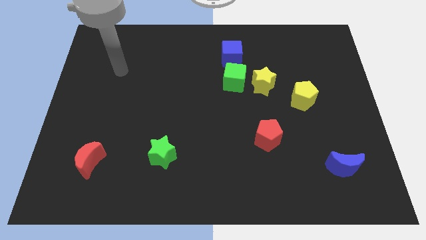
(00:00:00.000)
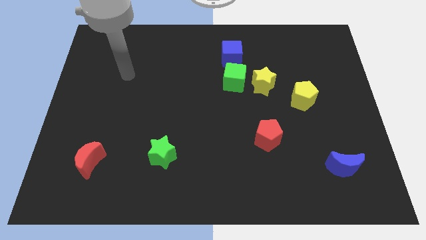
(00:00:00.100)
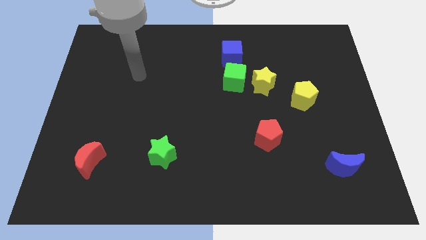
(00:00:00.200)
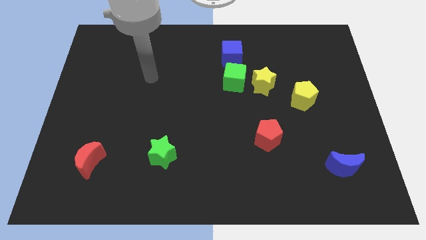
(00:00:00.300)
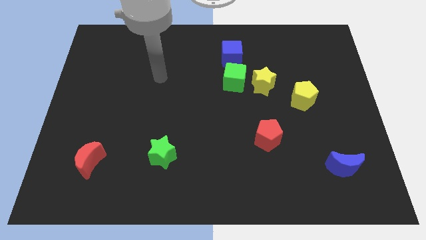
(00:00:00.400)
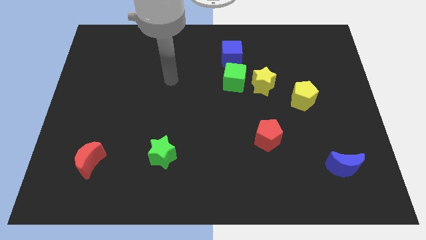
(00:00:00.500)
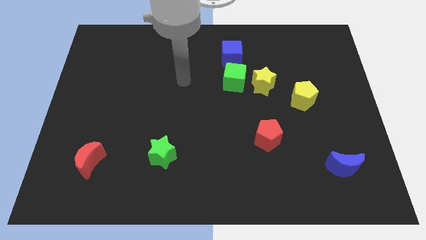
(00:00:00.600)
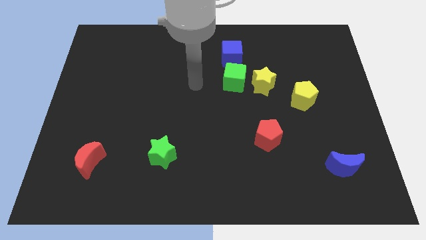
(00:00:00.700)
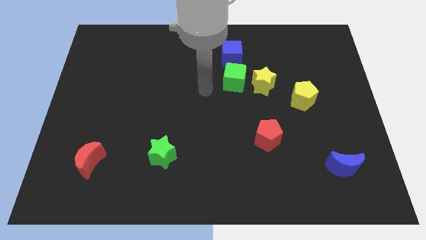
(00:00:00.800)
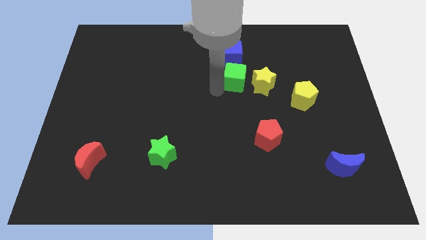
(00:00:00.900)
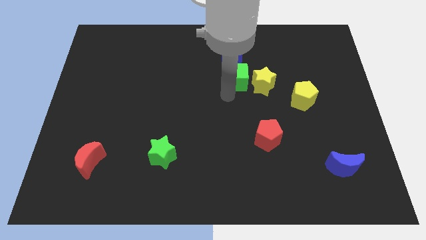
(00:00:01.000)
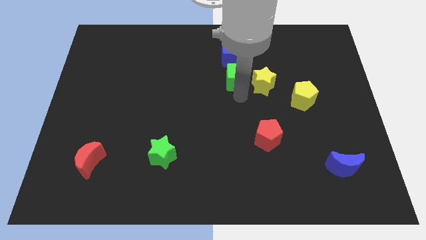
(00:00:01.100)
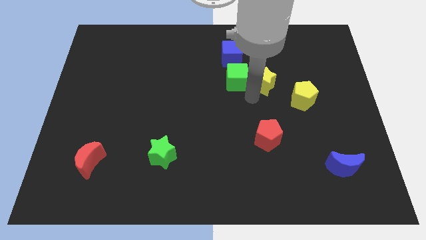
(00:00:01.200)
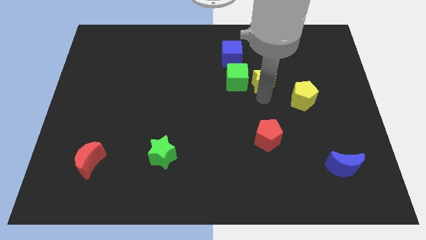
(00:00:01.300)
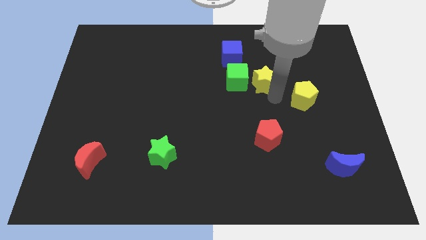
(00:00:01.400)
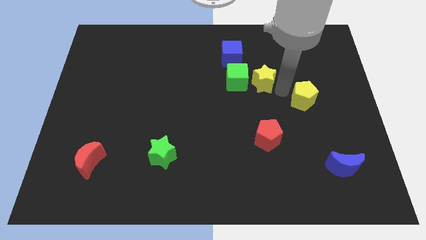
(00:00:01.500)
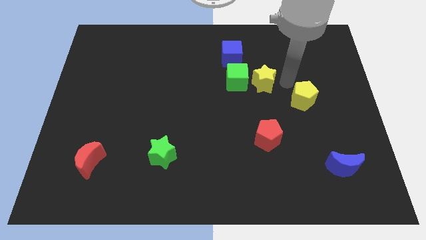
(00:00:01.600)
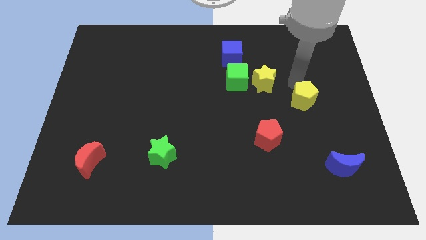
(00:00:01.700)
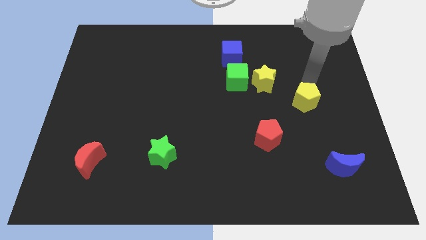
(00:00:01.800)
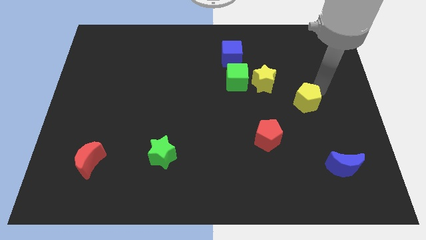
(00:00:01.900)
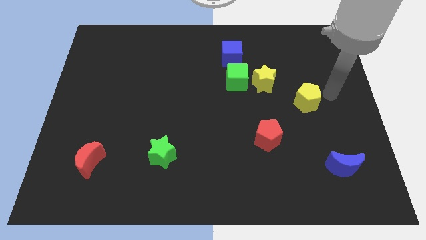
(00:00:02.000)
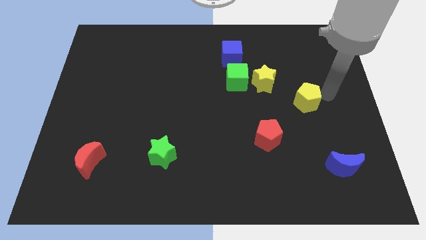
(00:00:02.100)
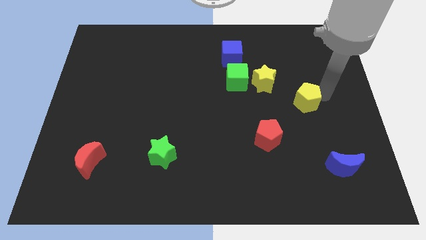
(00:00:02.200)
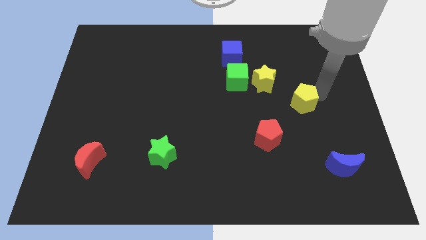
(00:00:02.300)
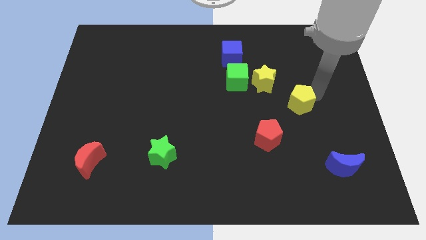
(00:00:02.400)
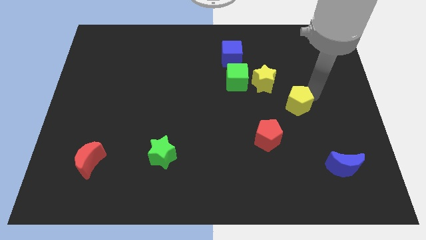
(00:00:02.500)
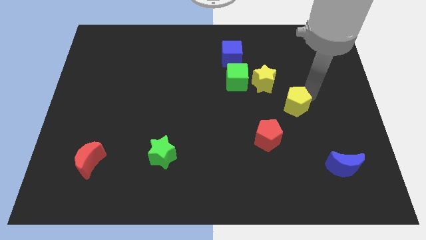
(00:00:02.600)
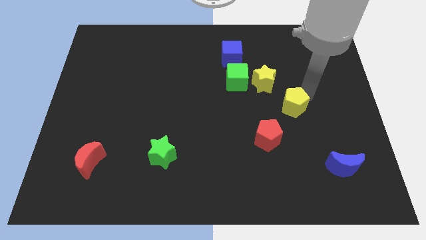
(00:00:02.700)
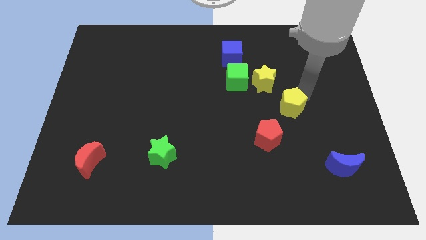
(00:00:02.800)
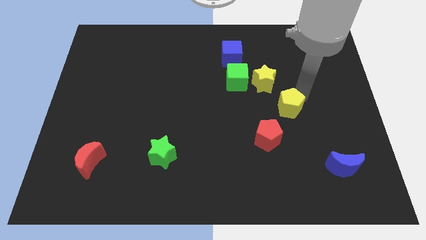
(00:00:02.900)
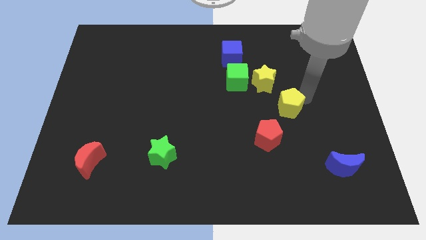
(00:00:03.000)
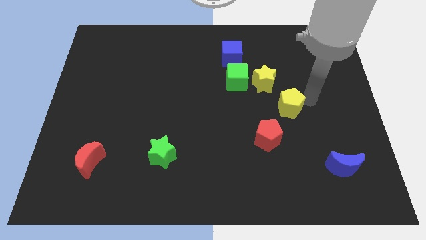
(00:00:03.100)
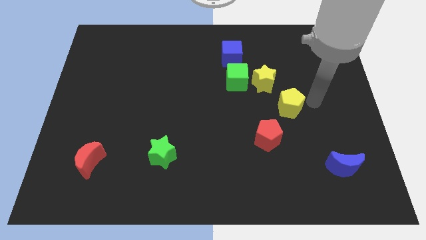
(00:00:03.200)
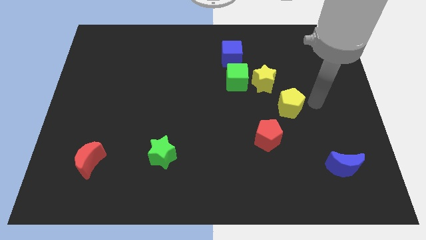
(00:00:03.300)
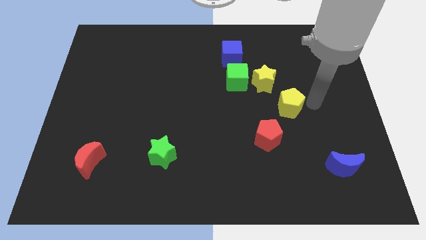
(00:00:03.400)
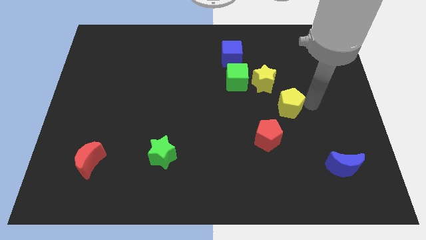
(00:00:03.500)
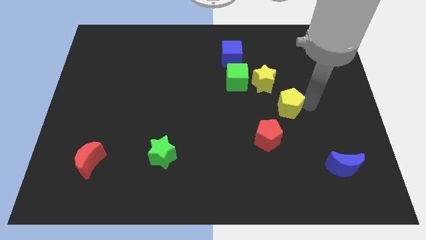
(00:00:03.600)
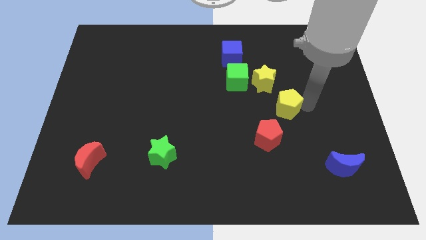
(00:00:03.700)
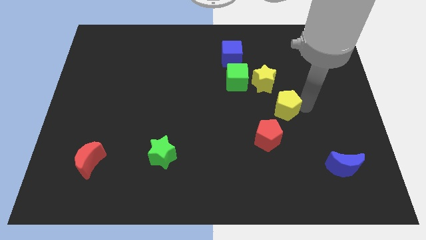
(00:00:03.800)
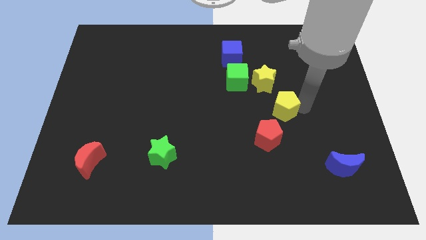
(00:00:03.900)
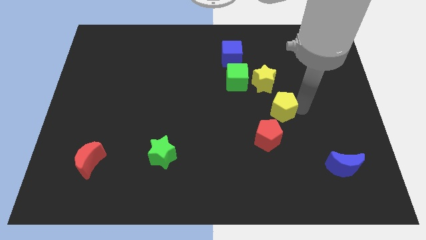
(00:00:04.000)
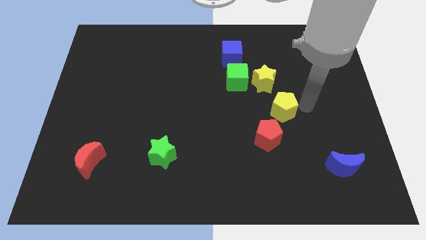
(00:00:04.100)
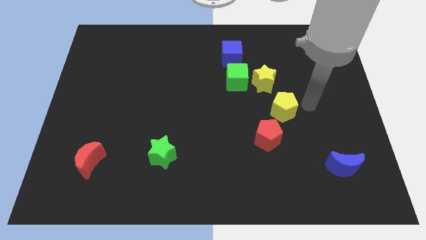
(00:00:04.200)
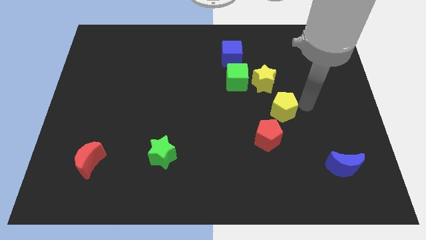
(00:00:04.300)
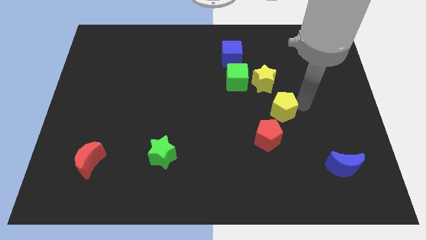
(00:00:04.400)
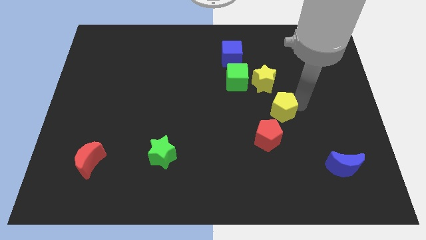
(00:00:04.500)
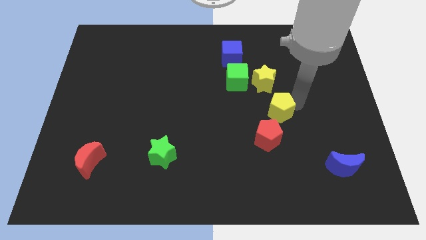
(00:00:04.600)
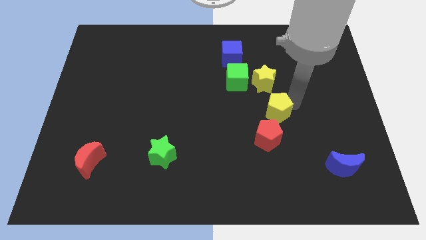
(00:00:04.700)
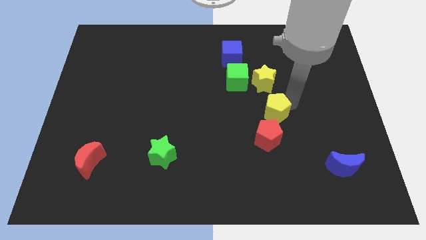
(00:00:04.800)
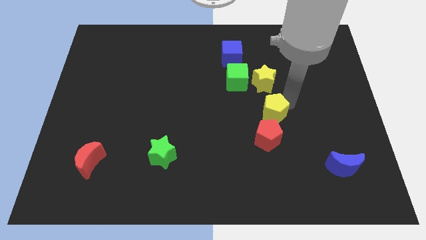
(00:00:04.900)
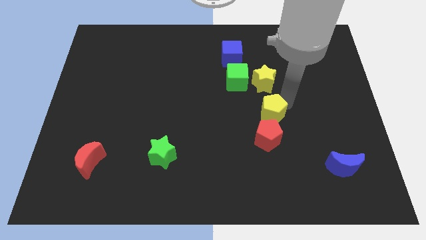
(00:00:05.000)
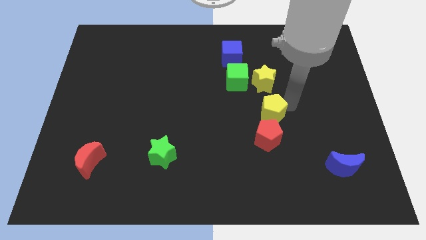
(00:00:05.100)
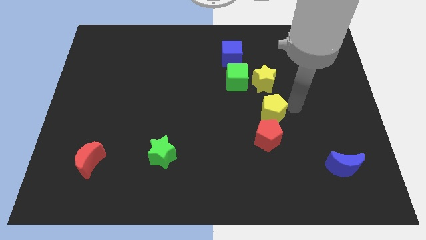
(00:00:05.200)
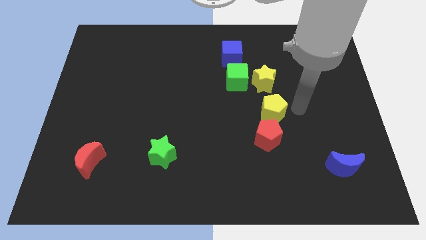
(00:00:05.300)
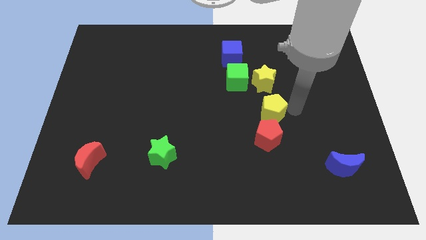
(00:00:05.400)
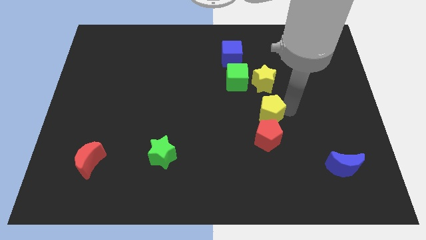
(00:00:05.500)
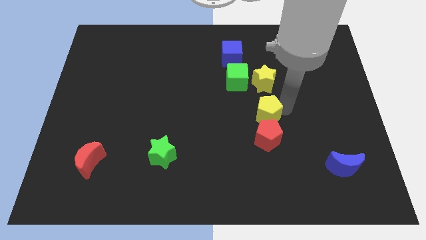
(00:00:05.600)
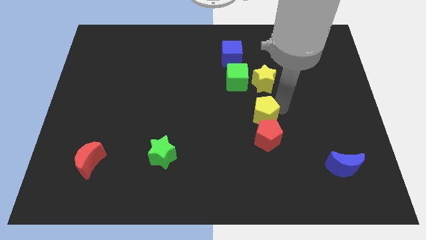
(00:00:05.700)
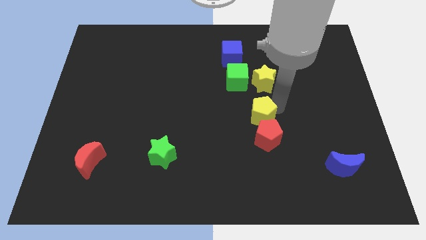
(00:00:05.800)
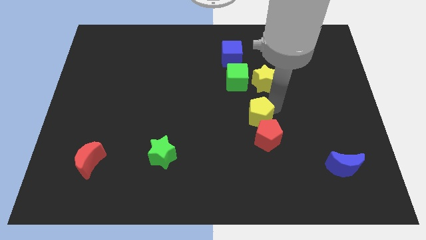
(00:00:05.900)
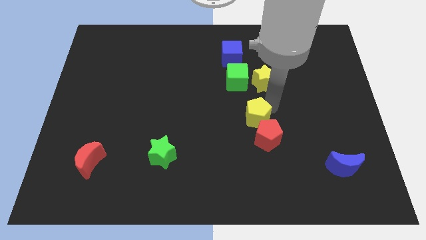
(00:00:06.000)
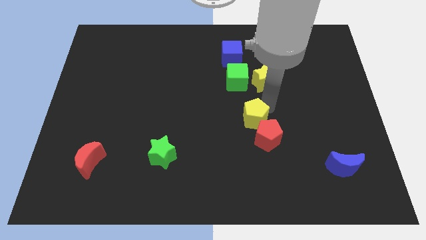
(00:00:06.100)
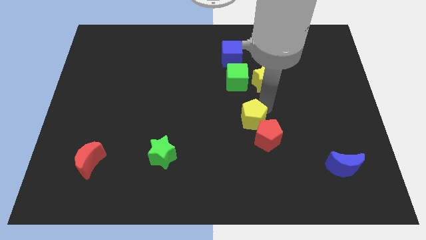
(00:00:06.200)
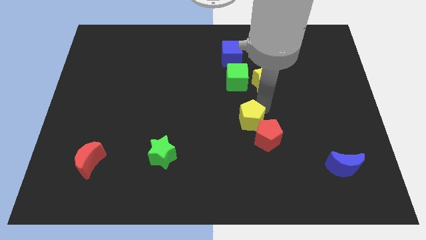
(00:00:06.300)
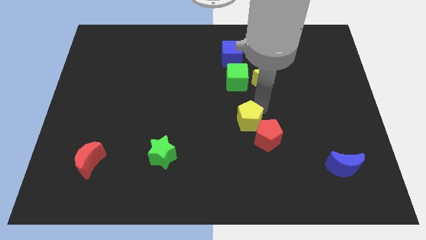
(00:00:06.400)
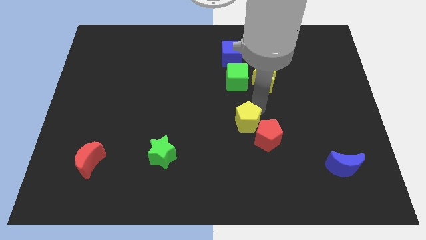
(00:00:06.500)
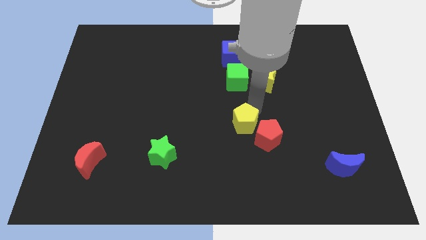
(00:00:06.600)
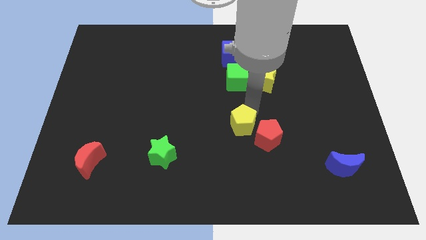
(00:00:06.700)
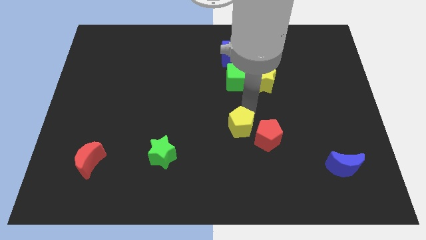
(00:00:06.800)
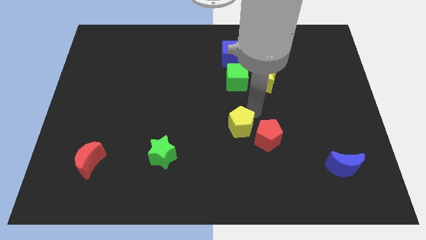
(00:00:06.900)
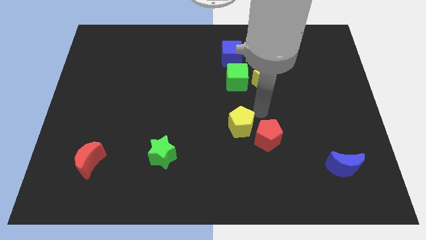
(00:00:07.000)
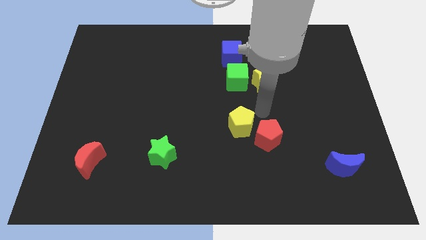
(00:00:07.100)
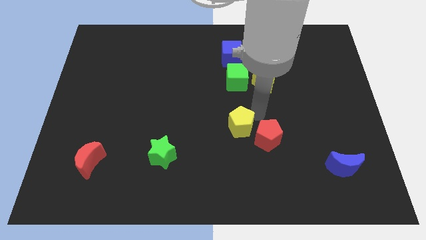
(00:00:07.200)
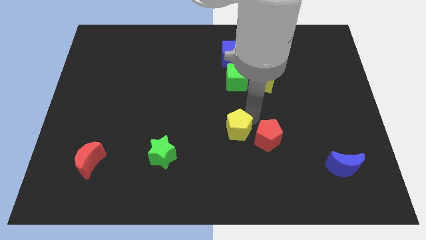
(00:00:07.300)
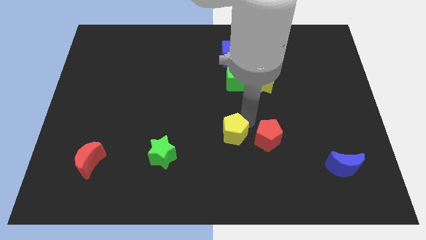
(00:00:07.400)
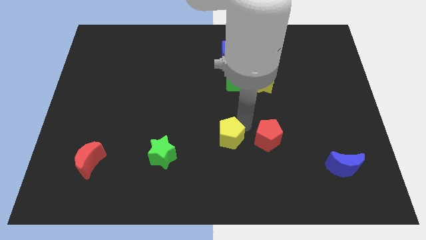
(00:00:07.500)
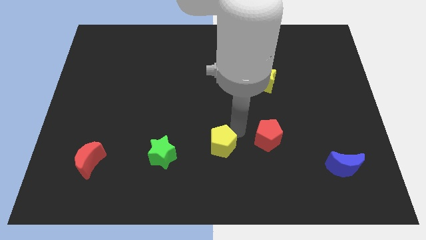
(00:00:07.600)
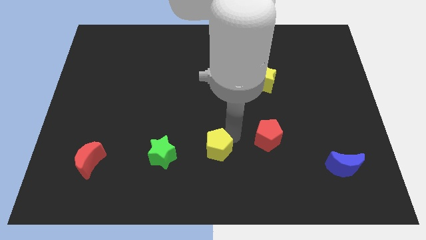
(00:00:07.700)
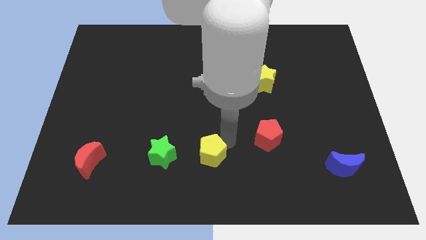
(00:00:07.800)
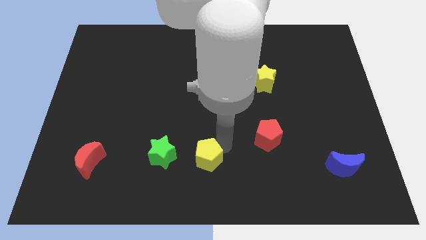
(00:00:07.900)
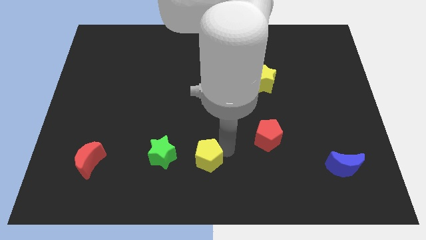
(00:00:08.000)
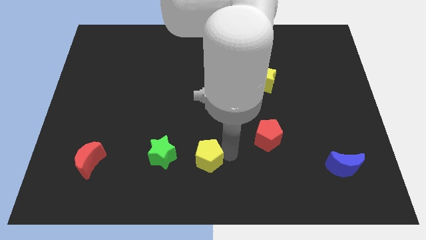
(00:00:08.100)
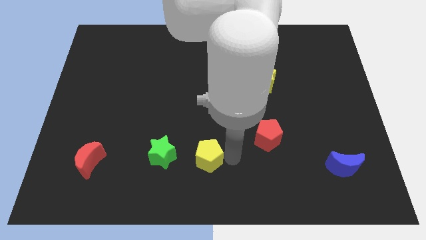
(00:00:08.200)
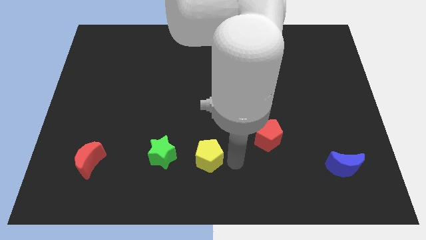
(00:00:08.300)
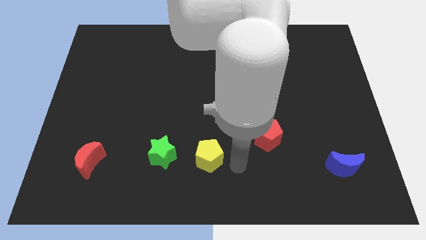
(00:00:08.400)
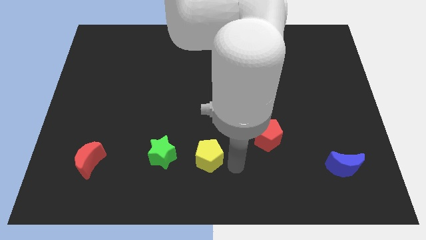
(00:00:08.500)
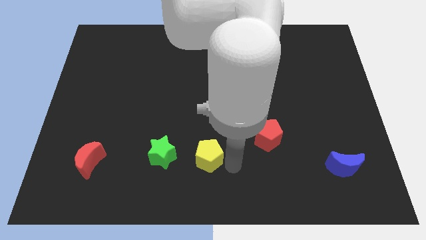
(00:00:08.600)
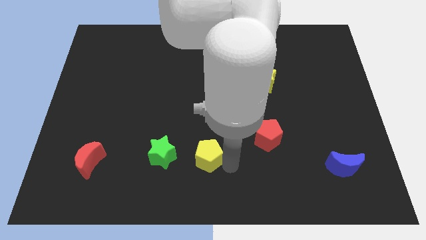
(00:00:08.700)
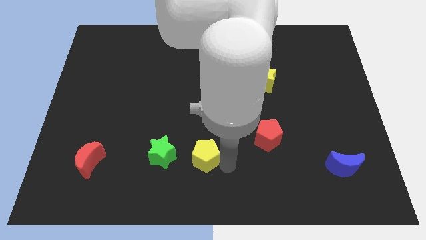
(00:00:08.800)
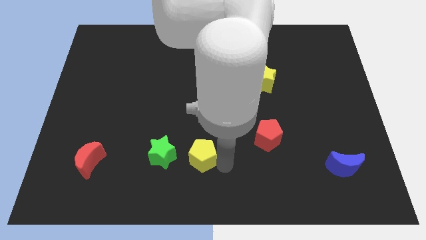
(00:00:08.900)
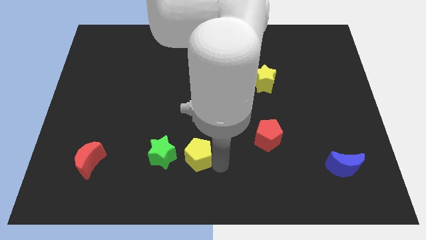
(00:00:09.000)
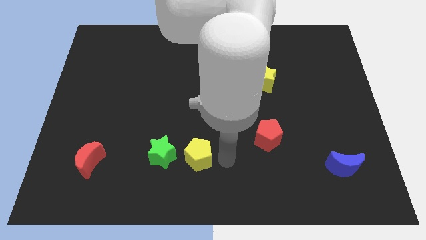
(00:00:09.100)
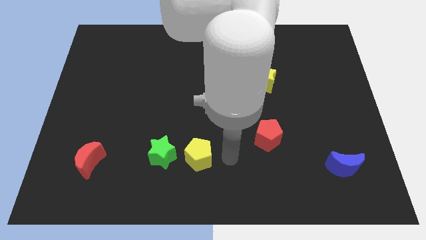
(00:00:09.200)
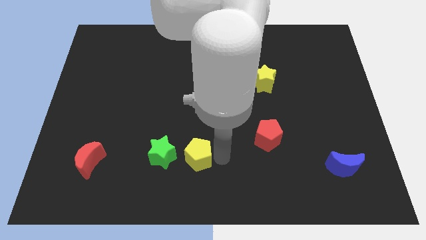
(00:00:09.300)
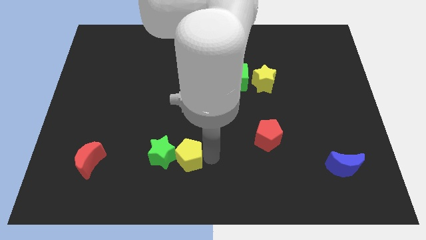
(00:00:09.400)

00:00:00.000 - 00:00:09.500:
put the yellow pentagon next to the green star
